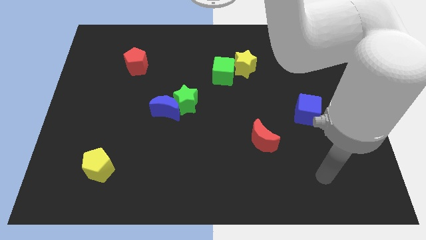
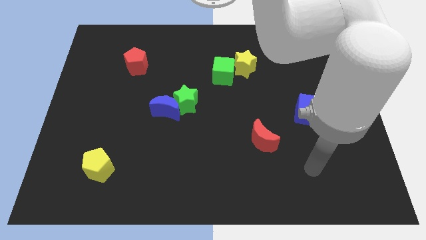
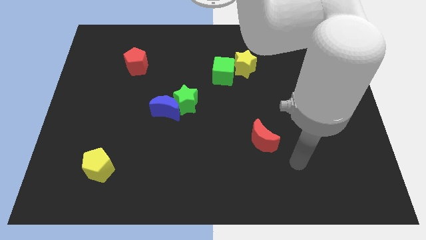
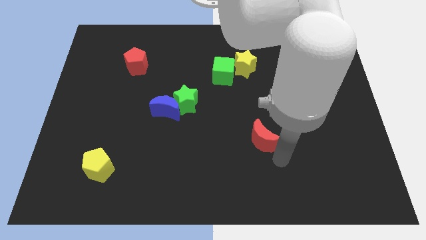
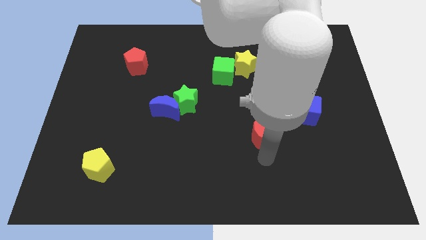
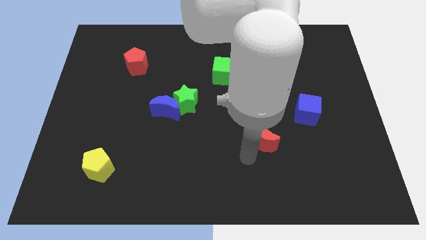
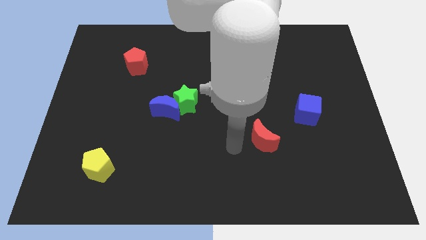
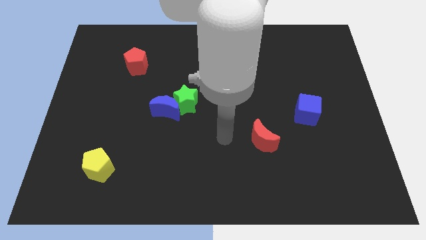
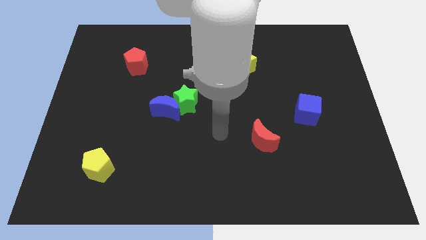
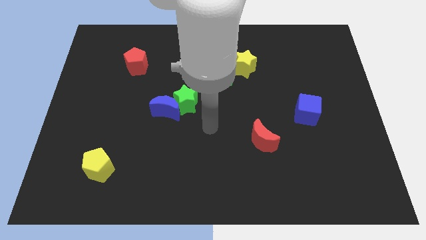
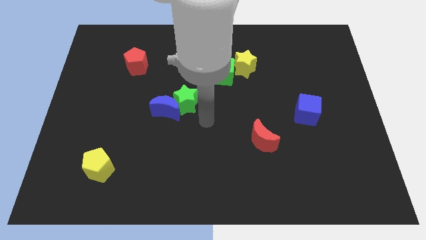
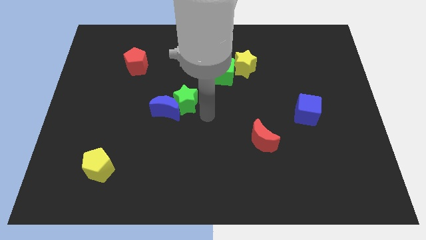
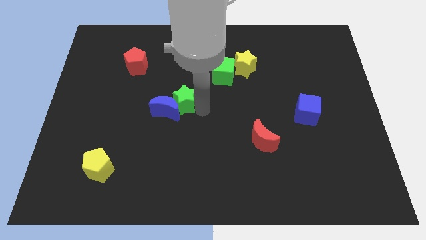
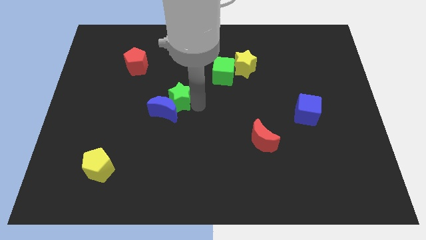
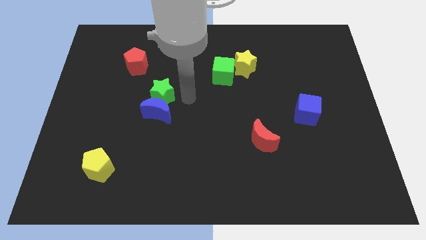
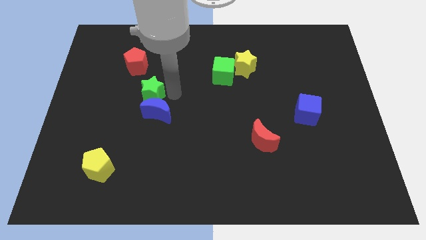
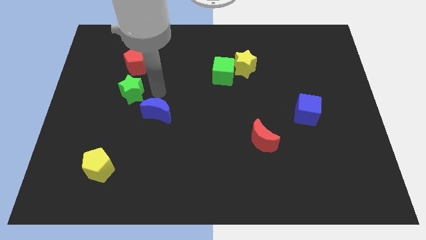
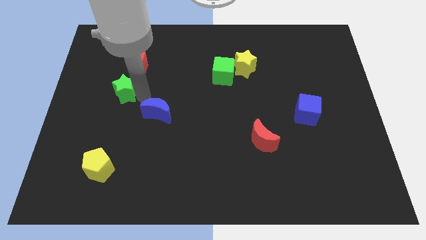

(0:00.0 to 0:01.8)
separate the blue moon from the green star

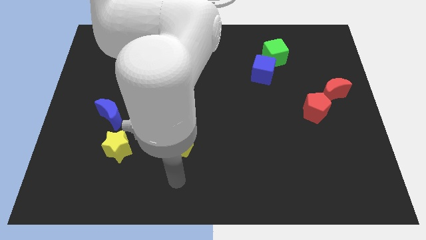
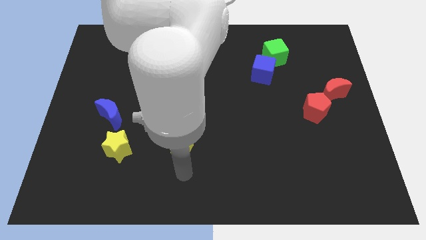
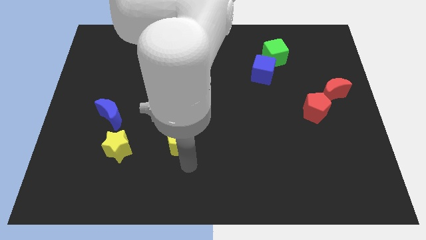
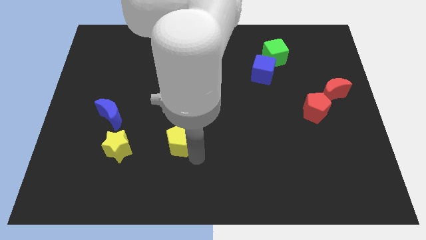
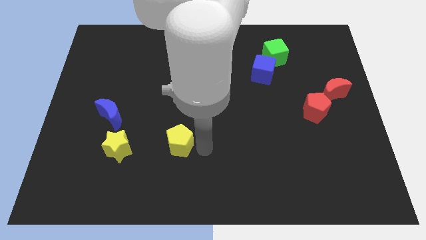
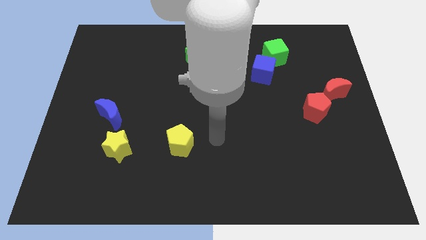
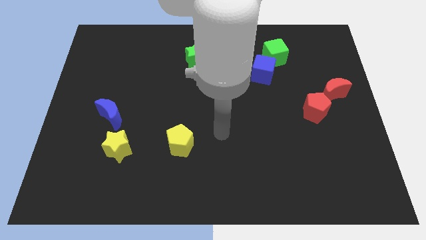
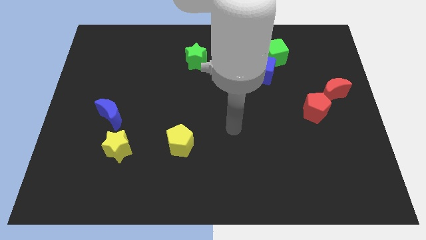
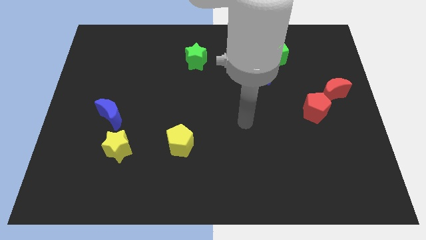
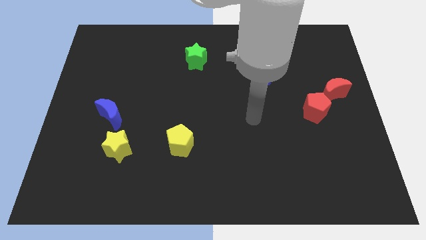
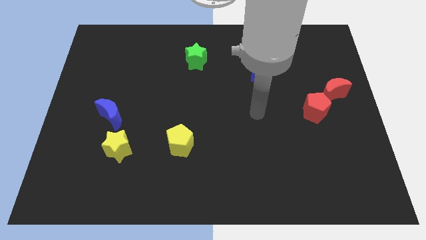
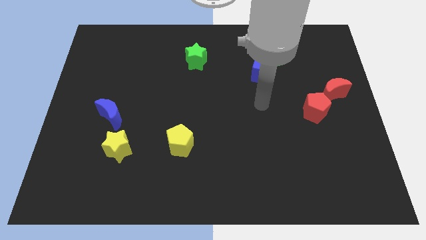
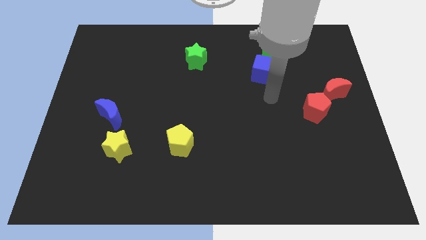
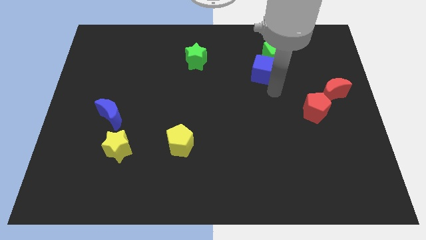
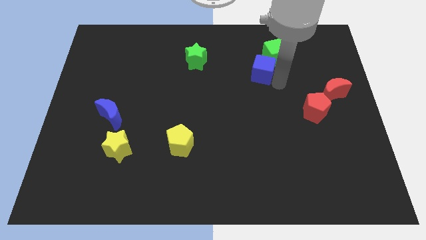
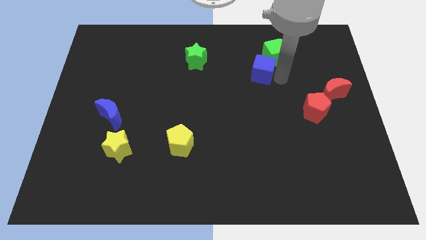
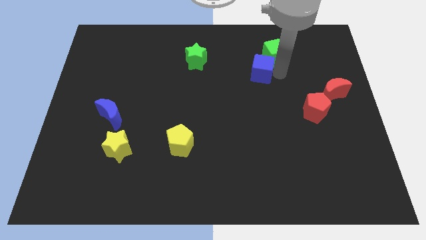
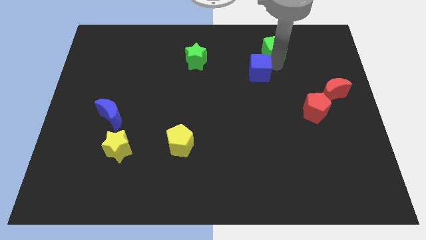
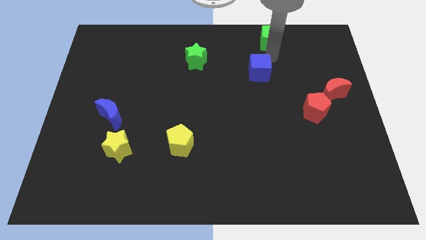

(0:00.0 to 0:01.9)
move the blue cube away from the green cube

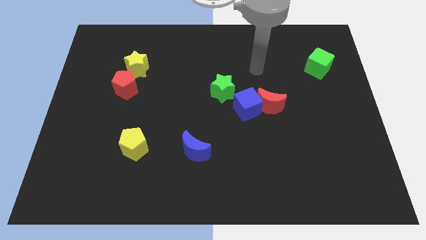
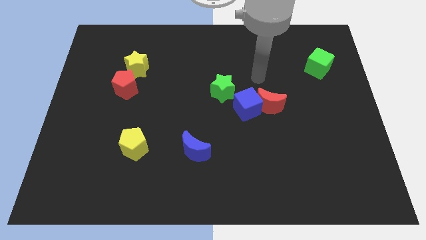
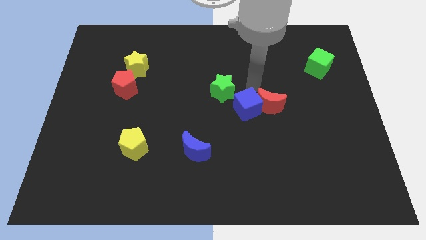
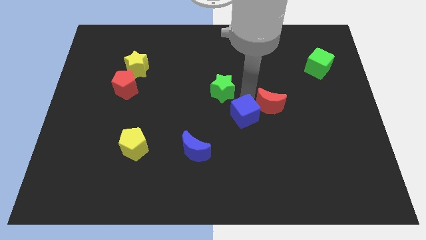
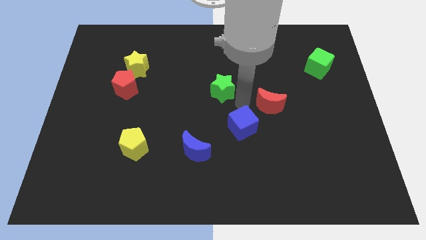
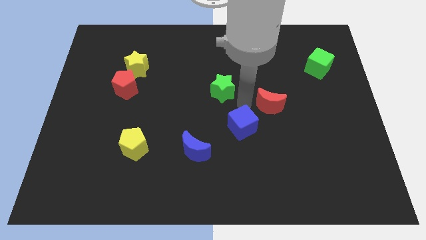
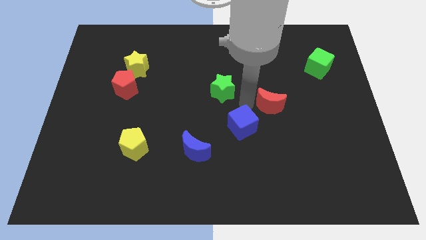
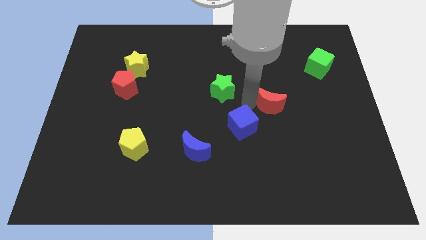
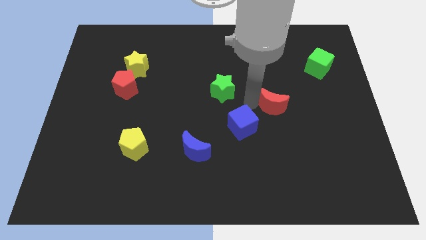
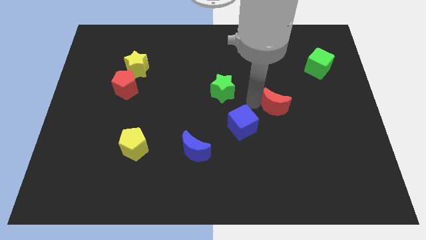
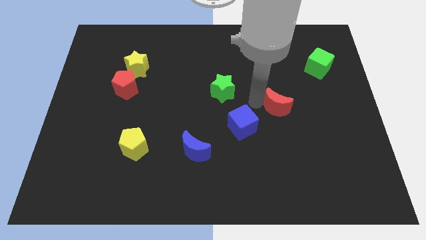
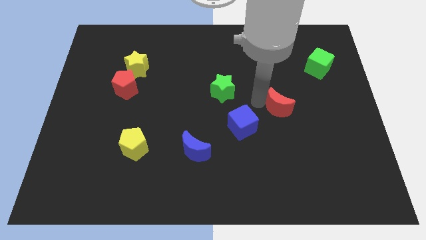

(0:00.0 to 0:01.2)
pull the red moon apart from the blue cube

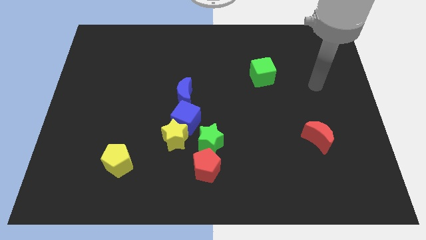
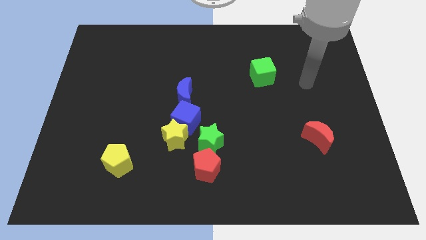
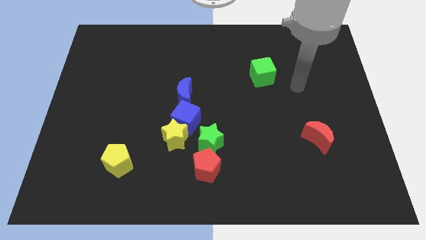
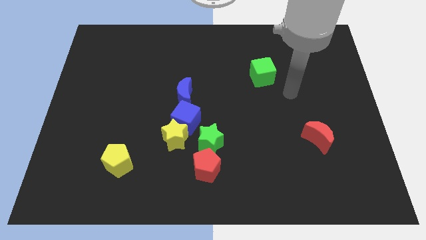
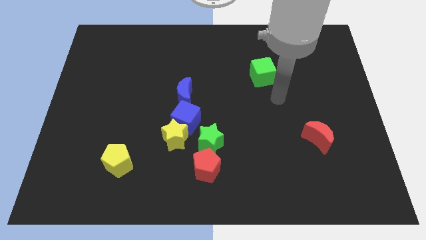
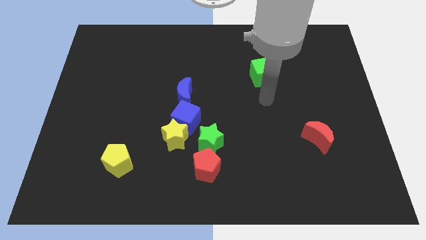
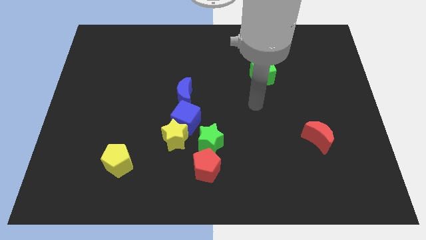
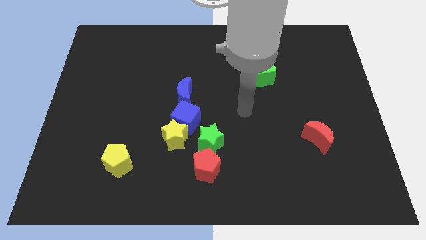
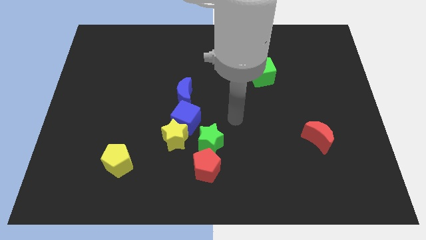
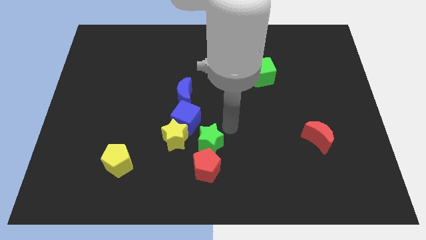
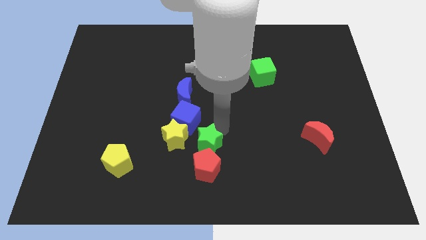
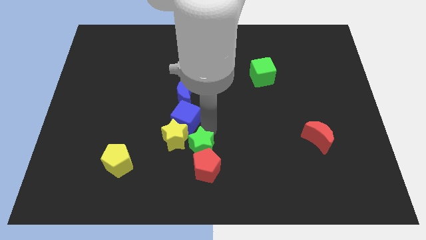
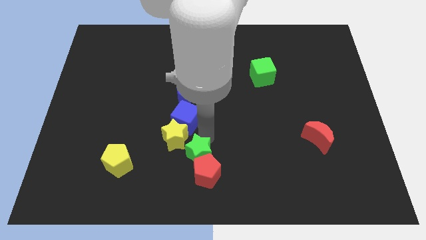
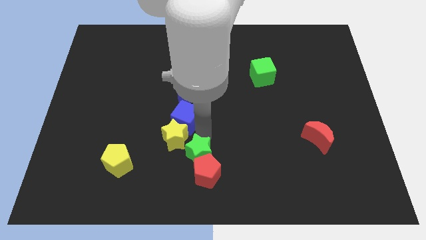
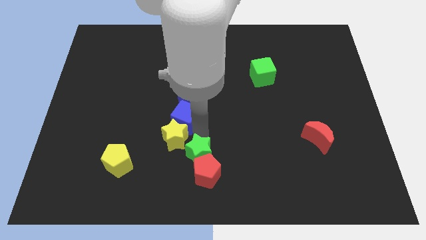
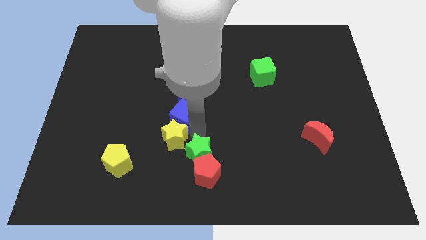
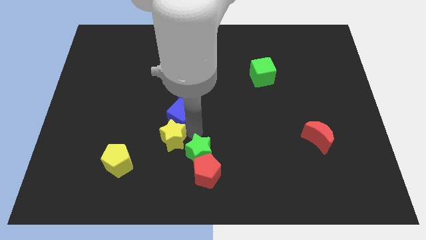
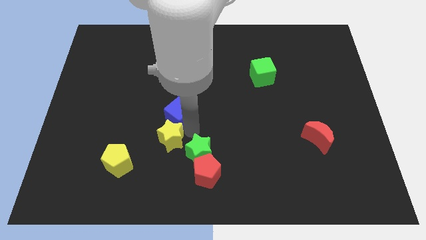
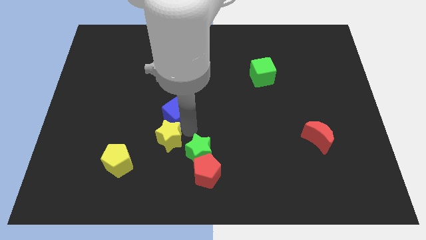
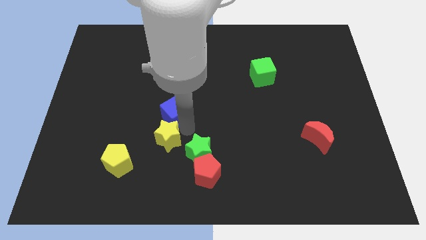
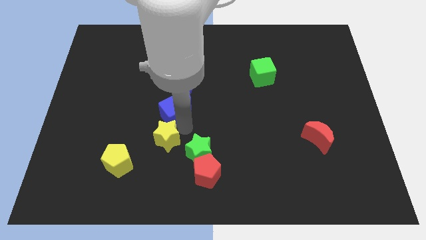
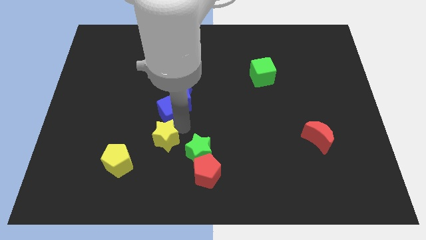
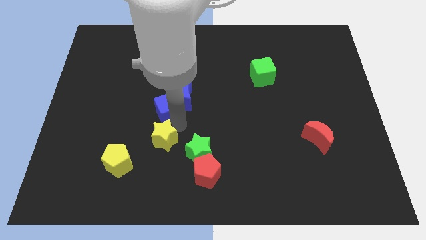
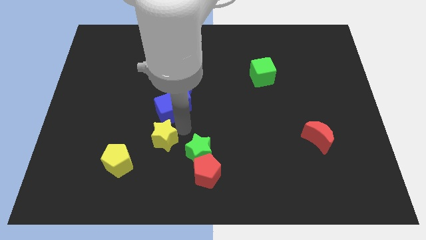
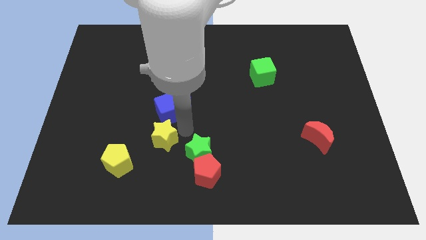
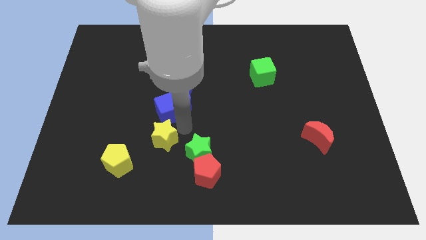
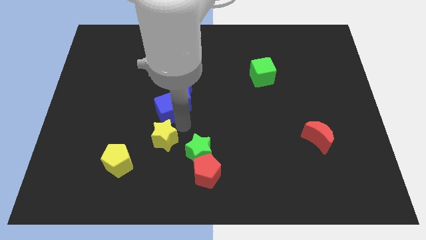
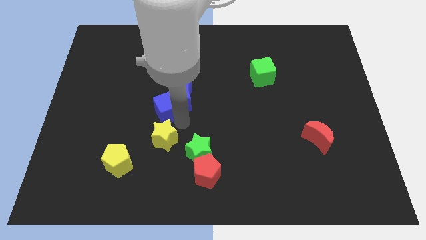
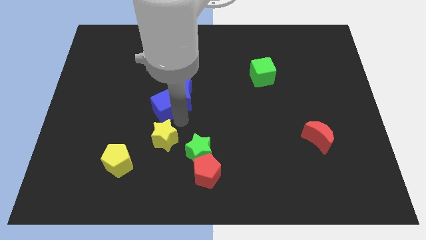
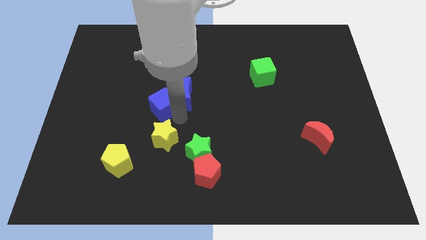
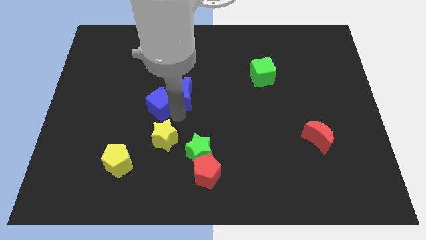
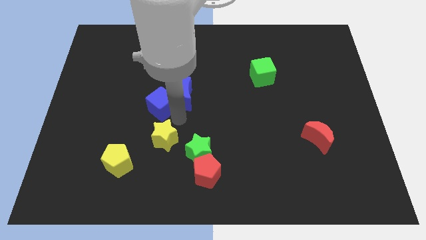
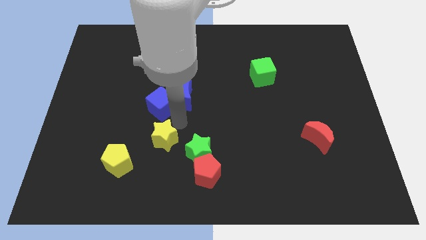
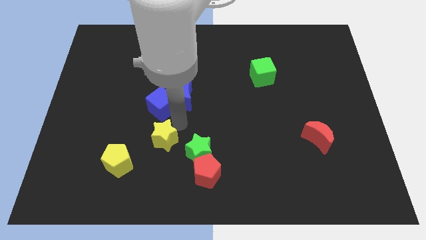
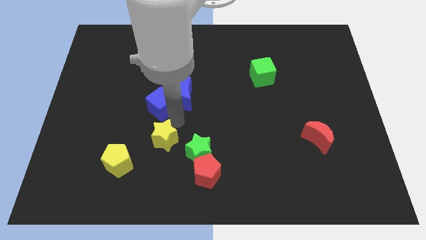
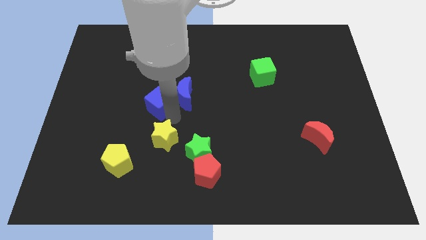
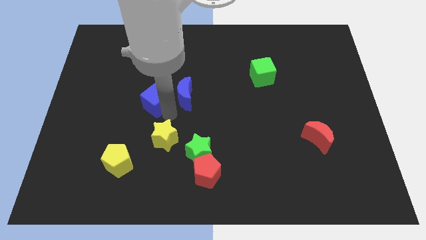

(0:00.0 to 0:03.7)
pull the blue cube apart from the yellow star, blue moon, and green star

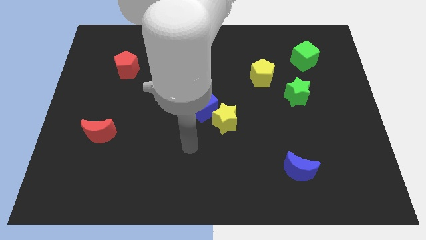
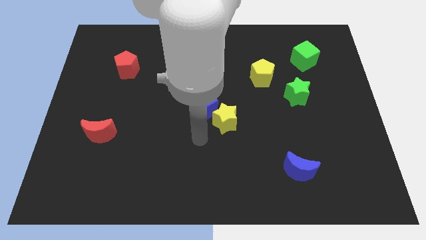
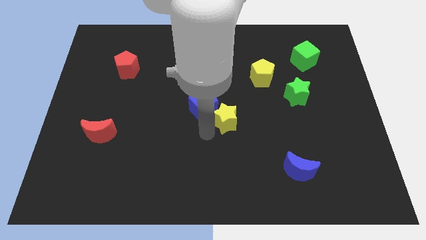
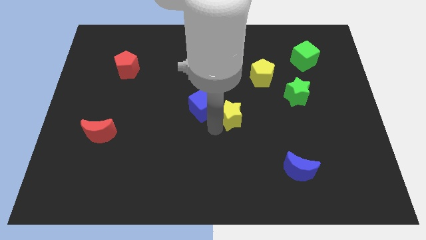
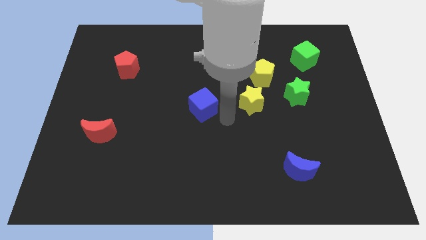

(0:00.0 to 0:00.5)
pull the blue cube apart from the yellow star

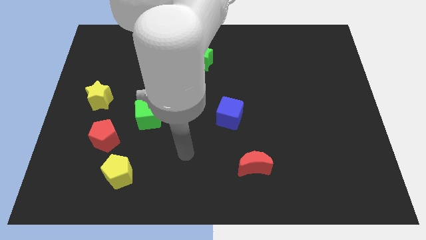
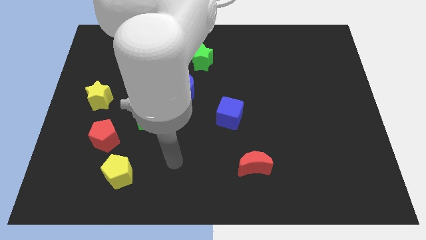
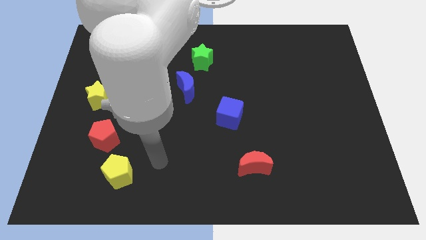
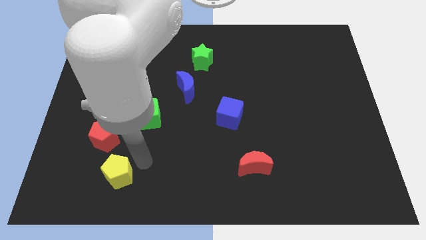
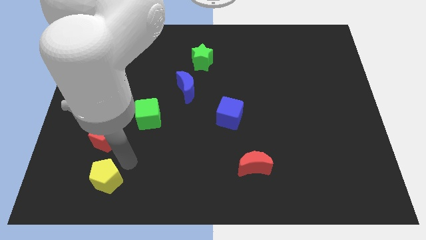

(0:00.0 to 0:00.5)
separate the red pentagon from the yellow pentagon
